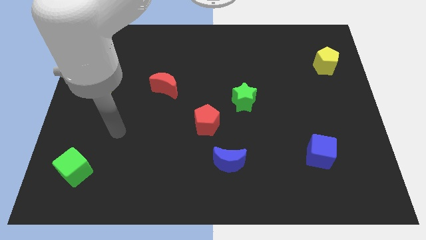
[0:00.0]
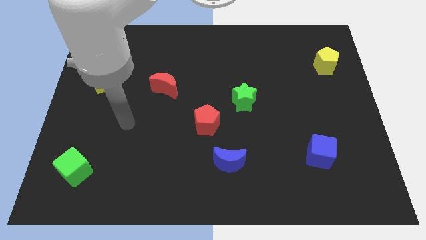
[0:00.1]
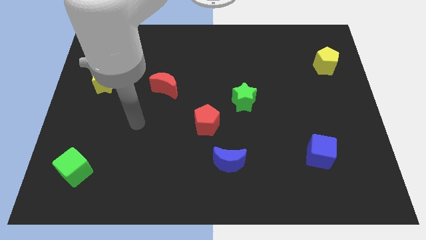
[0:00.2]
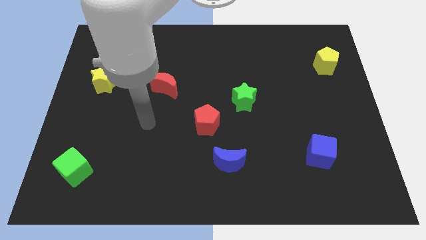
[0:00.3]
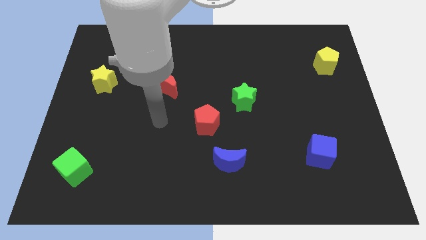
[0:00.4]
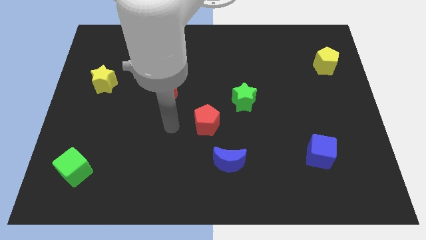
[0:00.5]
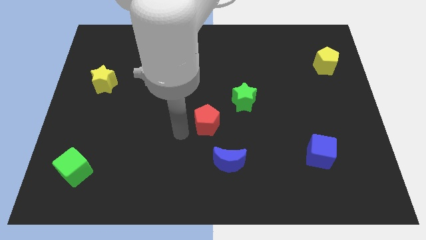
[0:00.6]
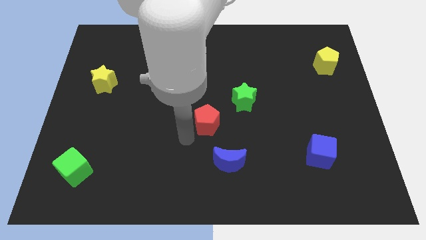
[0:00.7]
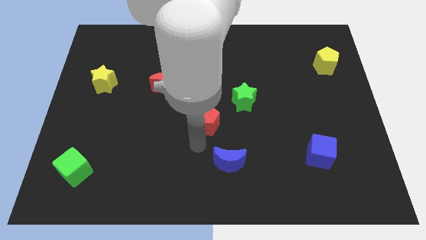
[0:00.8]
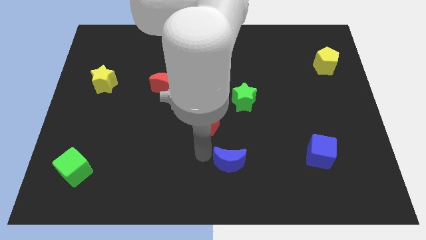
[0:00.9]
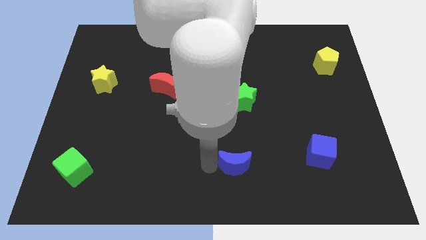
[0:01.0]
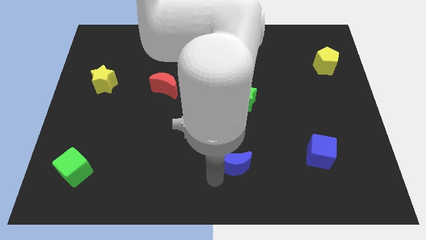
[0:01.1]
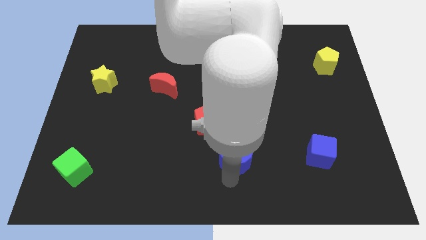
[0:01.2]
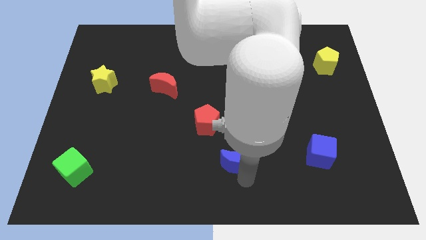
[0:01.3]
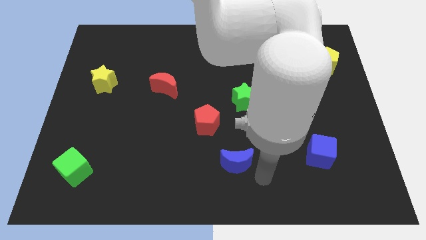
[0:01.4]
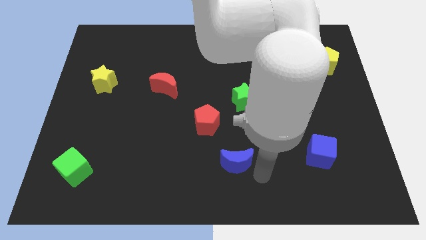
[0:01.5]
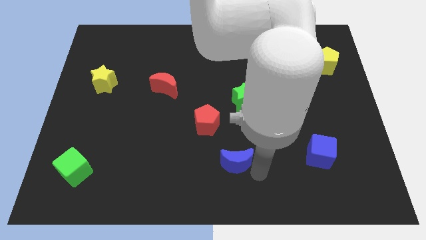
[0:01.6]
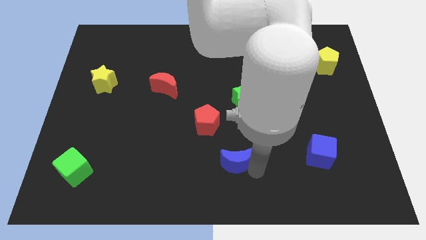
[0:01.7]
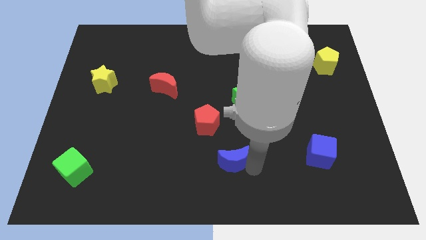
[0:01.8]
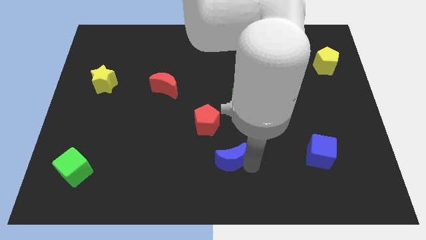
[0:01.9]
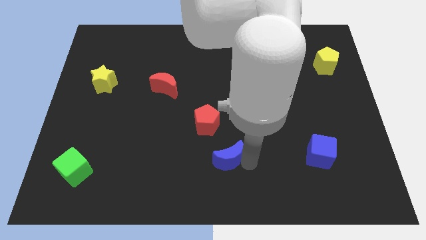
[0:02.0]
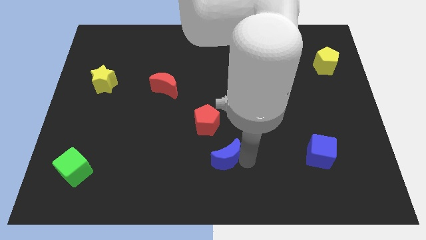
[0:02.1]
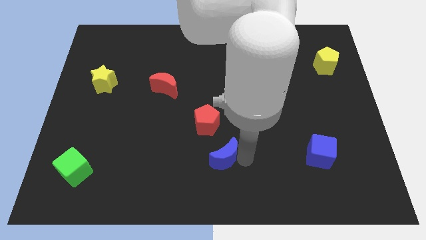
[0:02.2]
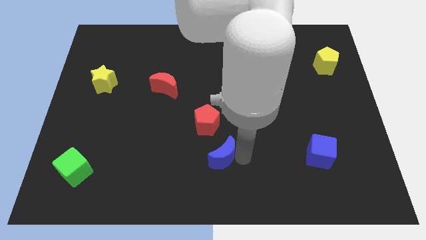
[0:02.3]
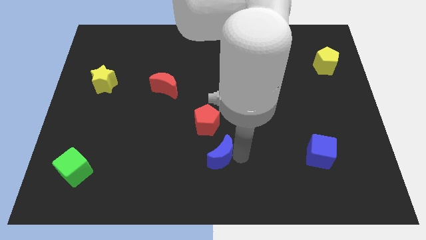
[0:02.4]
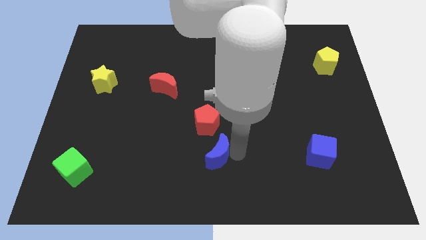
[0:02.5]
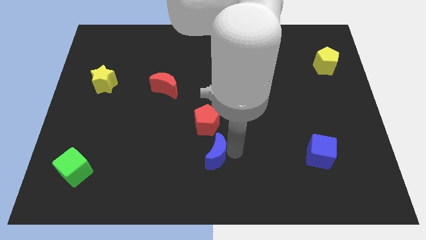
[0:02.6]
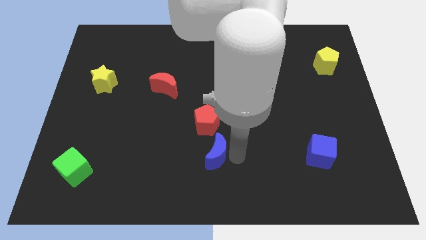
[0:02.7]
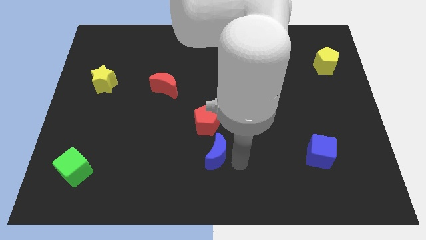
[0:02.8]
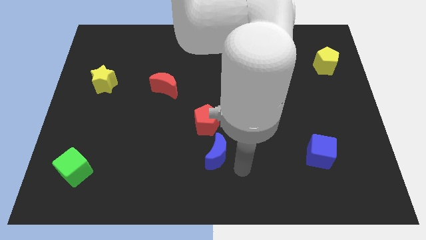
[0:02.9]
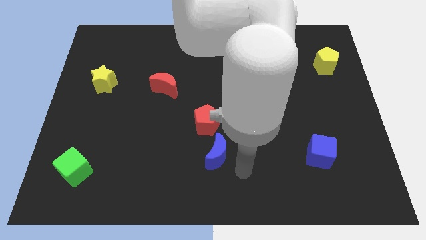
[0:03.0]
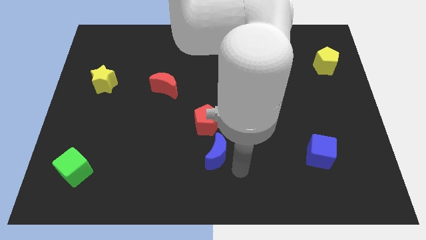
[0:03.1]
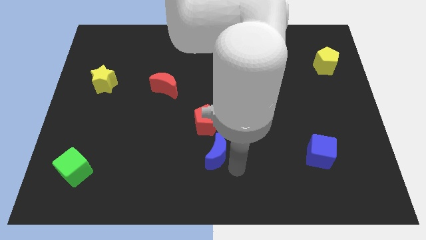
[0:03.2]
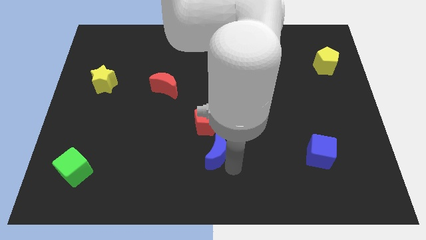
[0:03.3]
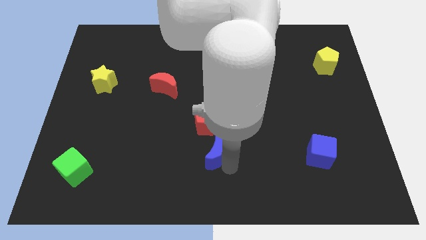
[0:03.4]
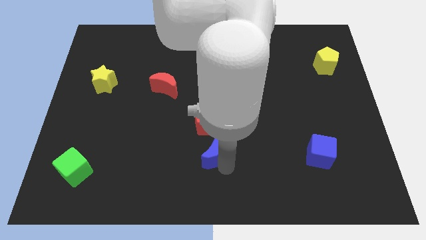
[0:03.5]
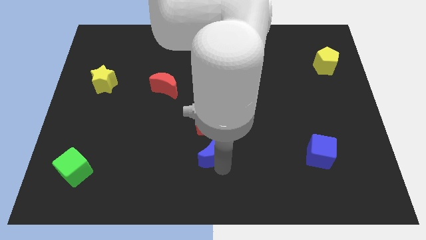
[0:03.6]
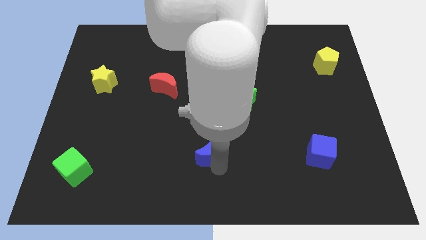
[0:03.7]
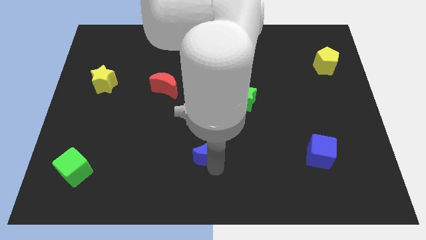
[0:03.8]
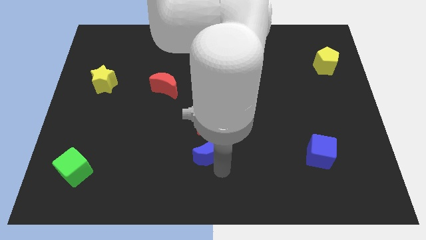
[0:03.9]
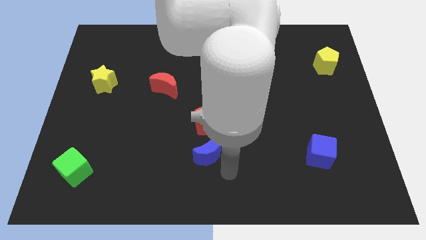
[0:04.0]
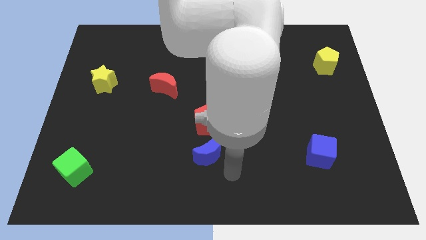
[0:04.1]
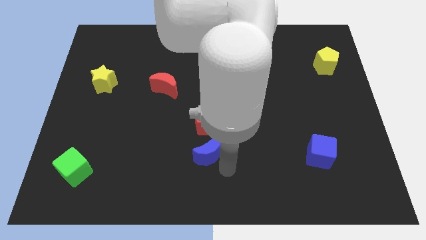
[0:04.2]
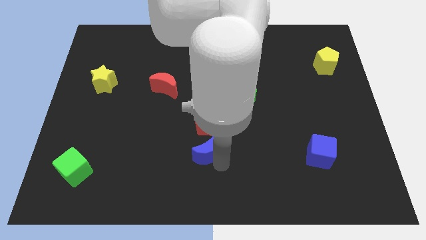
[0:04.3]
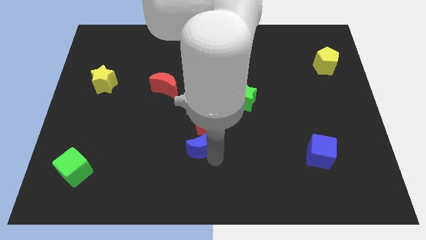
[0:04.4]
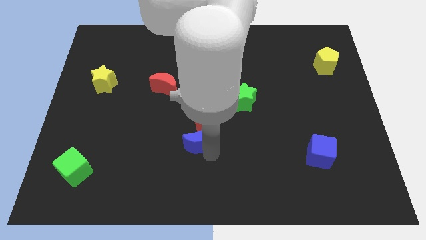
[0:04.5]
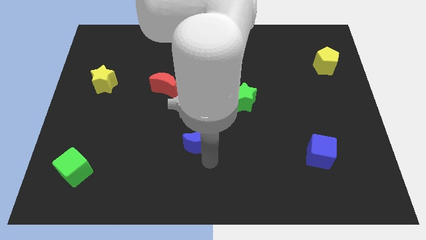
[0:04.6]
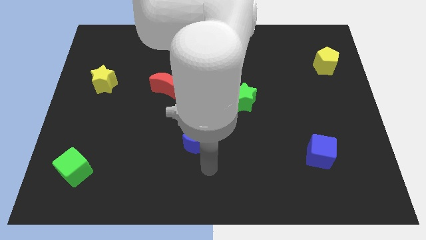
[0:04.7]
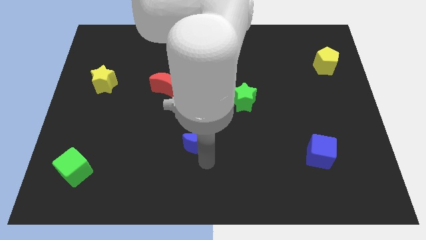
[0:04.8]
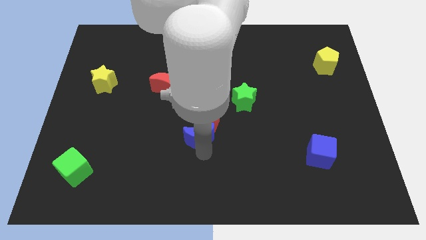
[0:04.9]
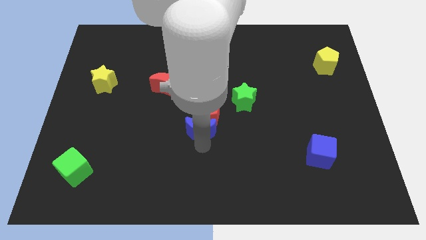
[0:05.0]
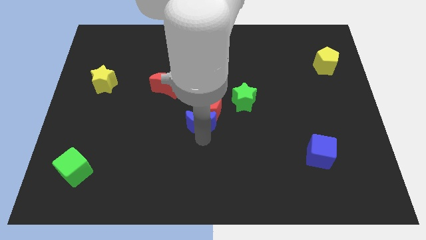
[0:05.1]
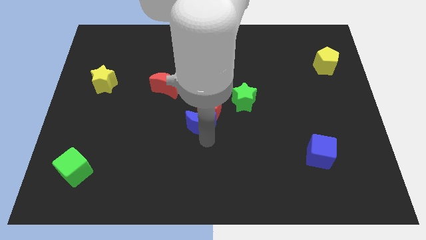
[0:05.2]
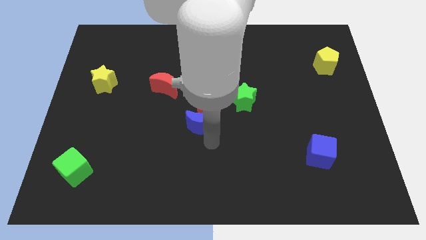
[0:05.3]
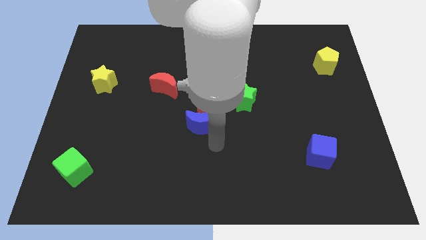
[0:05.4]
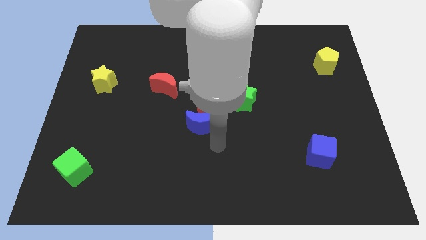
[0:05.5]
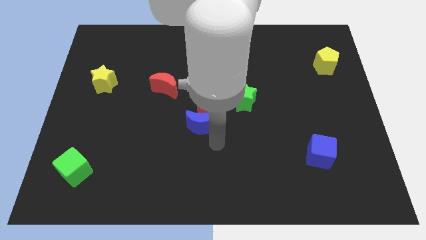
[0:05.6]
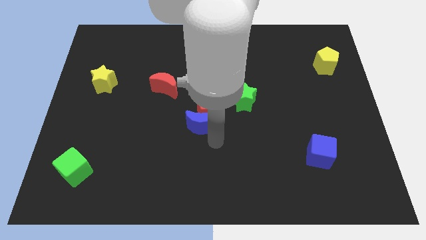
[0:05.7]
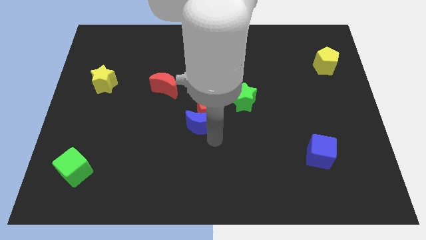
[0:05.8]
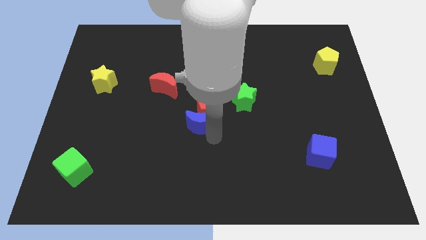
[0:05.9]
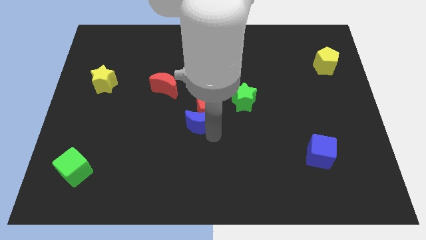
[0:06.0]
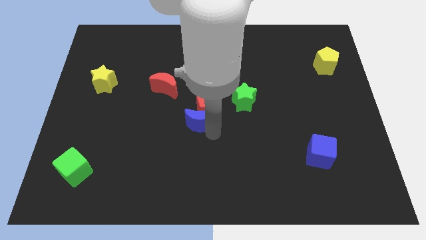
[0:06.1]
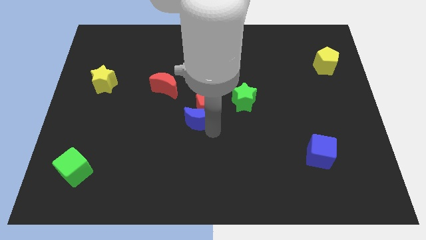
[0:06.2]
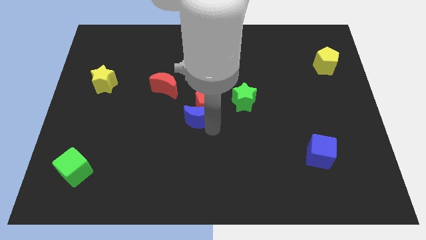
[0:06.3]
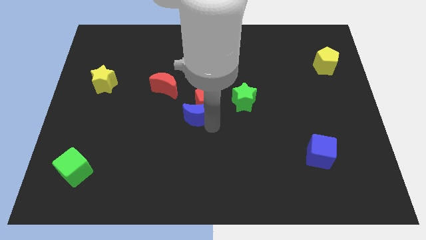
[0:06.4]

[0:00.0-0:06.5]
put the blue moon to the left of the green star

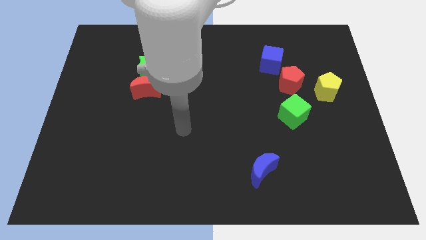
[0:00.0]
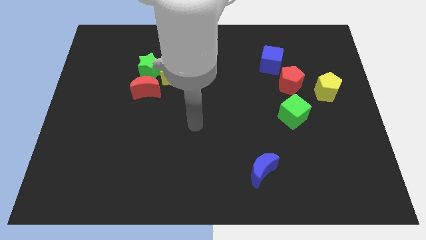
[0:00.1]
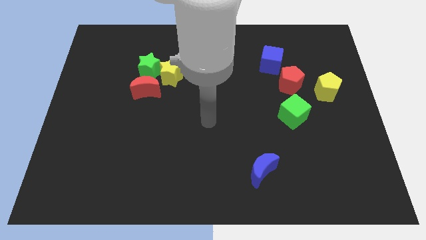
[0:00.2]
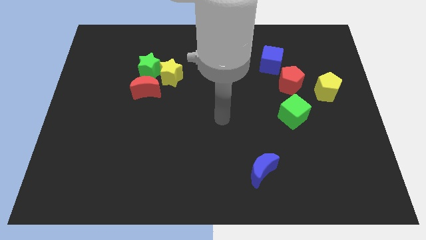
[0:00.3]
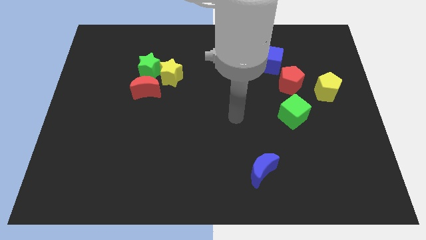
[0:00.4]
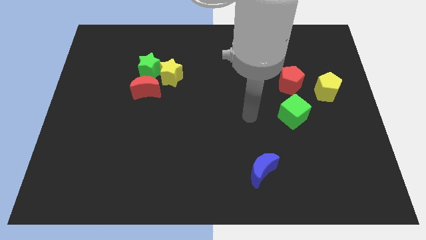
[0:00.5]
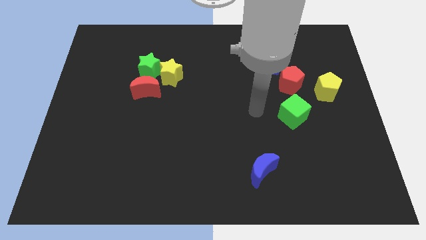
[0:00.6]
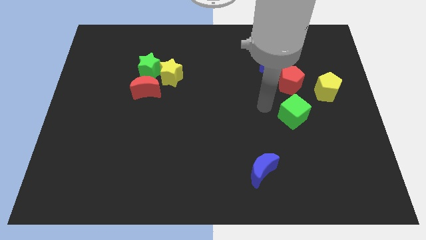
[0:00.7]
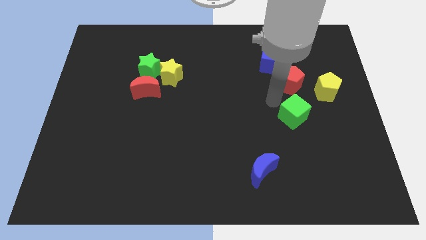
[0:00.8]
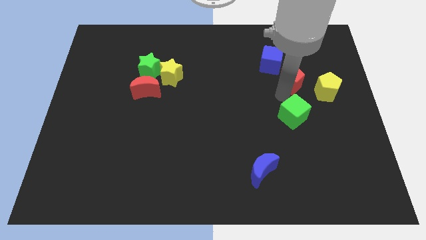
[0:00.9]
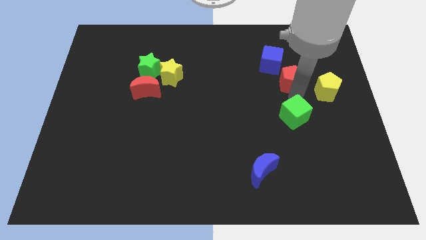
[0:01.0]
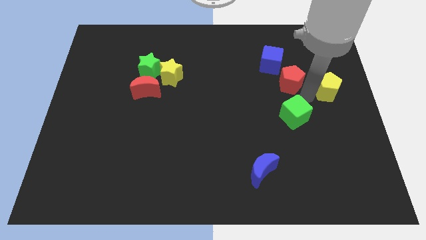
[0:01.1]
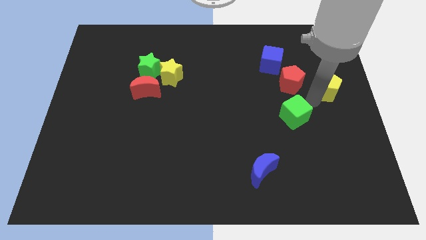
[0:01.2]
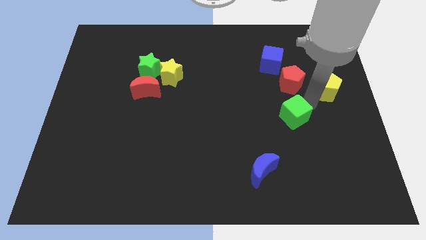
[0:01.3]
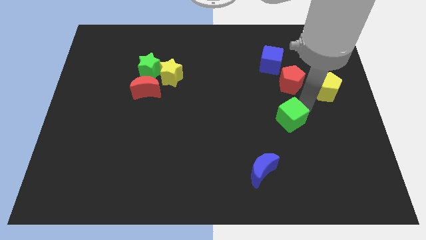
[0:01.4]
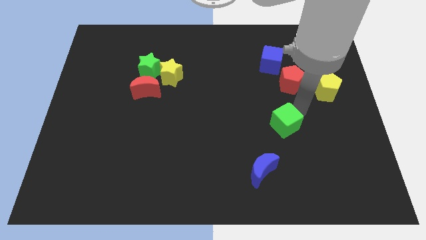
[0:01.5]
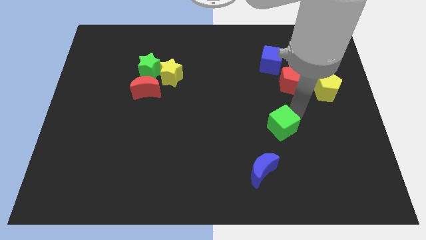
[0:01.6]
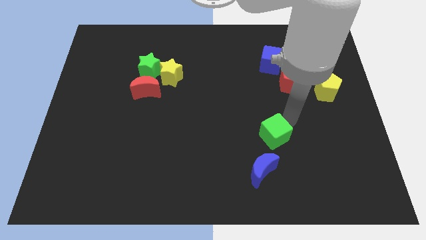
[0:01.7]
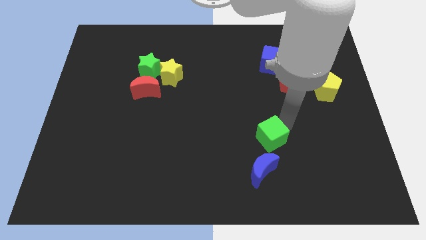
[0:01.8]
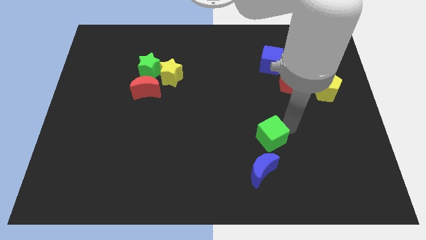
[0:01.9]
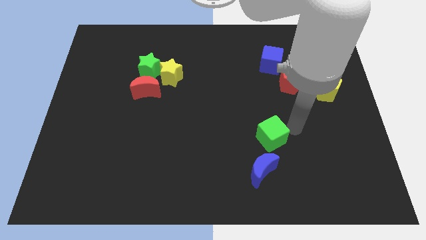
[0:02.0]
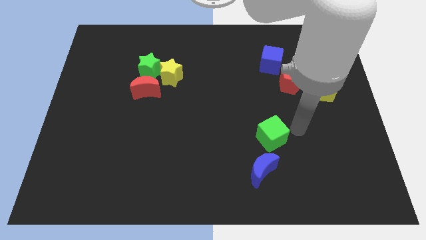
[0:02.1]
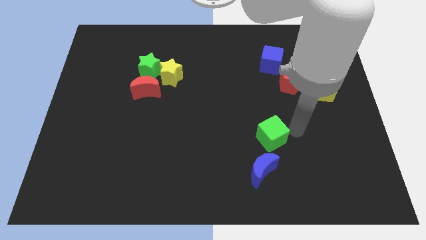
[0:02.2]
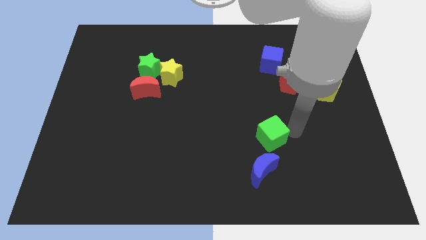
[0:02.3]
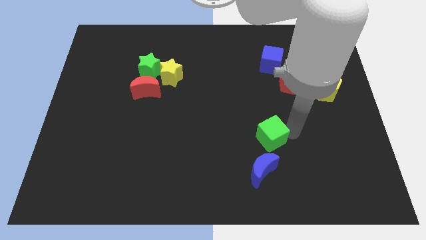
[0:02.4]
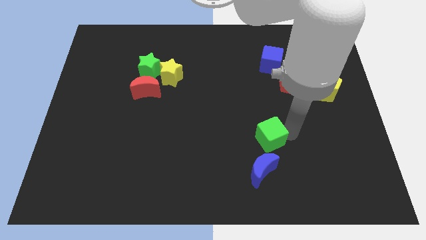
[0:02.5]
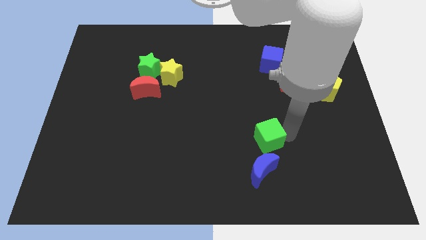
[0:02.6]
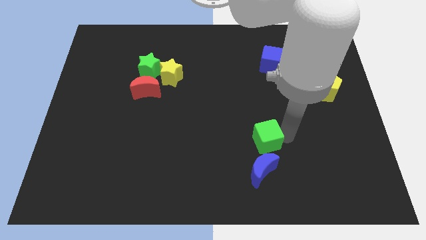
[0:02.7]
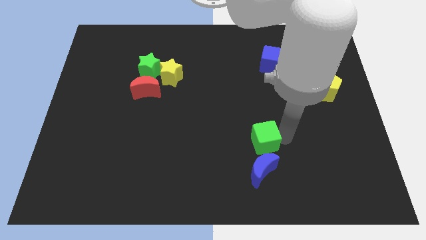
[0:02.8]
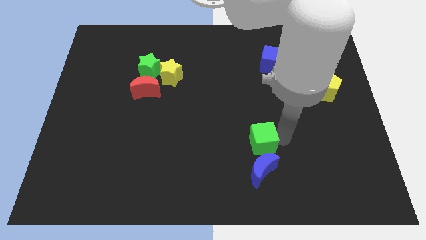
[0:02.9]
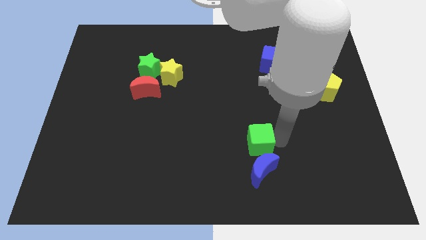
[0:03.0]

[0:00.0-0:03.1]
put the green cube diagonally up and to the left of the blue moon
